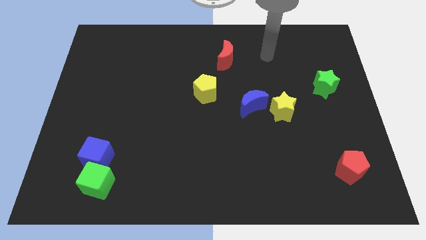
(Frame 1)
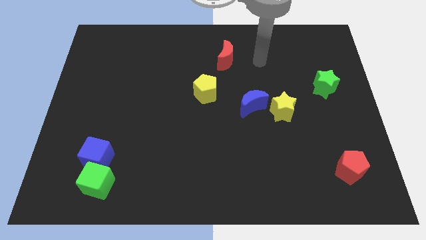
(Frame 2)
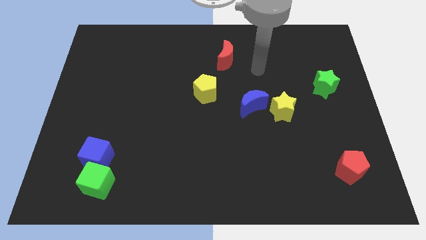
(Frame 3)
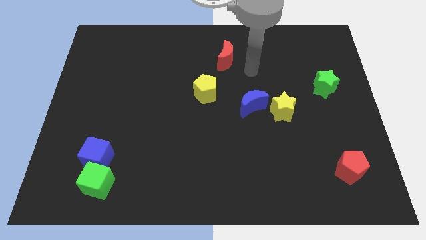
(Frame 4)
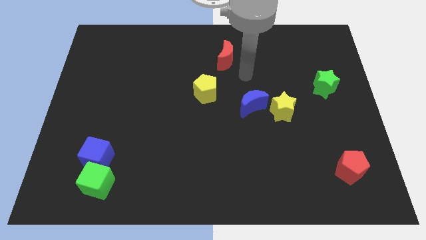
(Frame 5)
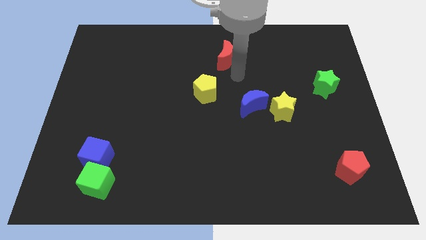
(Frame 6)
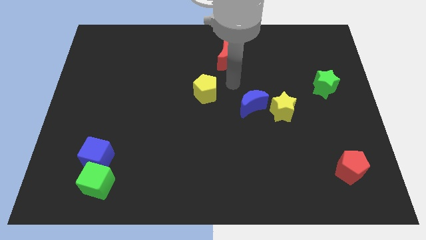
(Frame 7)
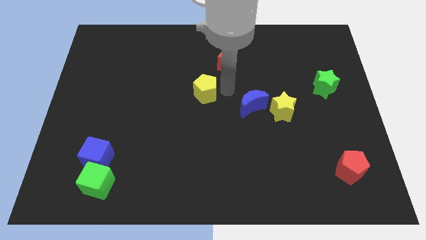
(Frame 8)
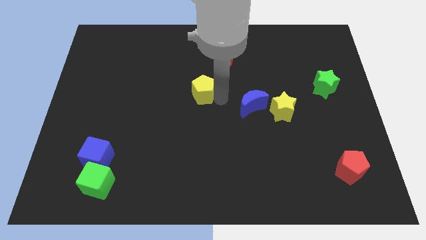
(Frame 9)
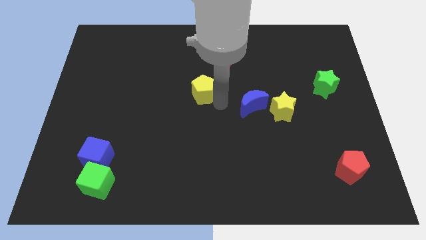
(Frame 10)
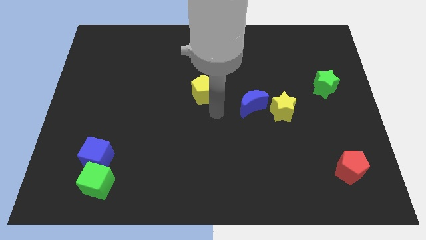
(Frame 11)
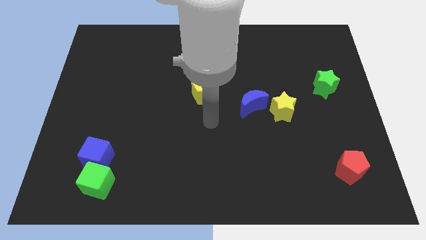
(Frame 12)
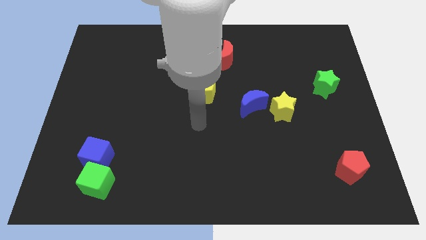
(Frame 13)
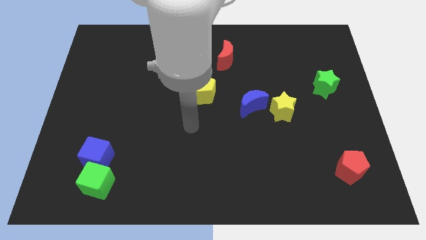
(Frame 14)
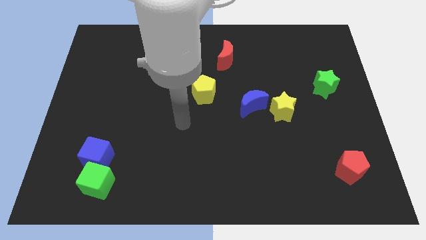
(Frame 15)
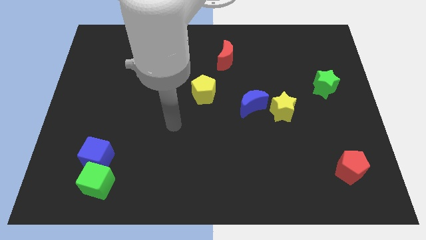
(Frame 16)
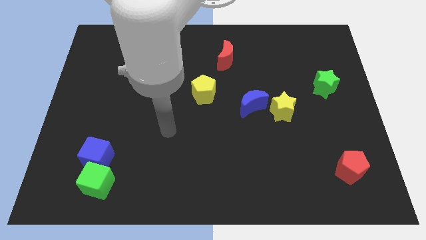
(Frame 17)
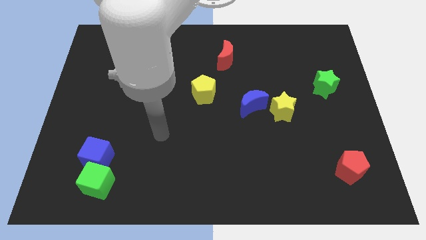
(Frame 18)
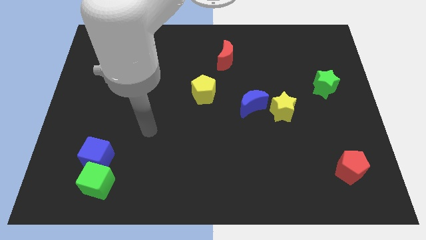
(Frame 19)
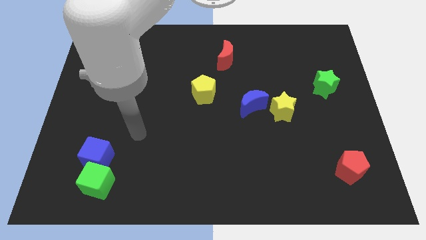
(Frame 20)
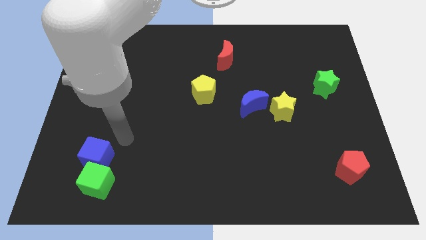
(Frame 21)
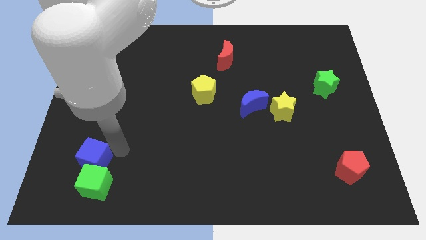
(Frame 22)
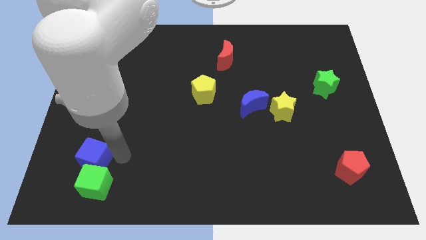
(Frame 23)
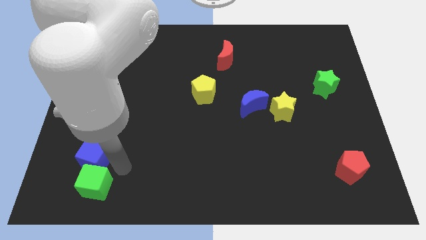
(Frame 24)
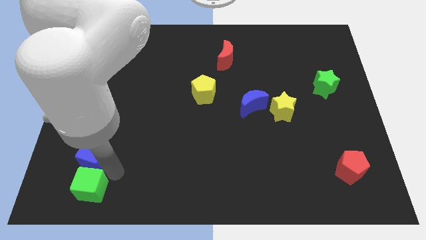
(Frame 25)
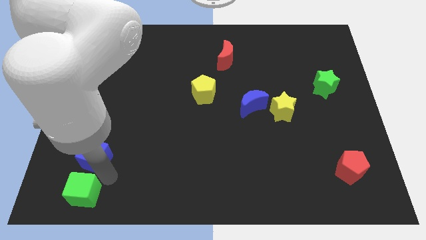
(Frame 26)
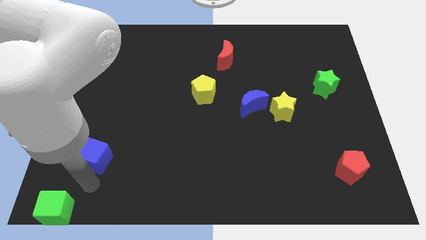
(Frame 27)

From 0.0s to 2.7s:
pull the blue cube apart from the green cube

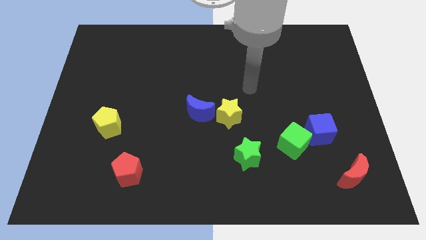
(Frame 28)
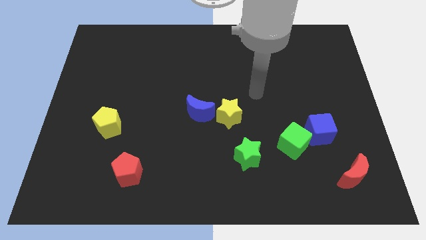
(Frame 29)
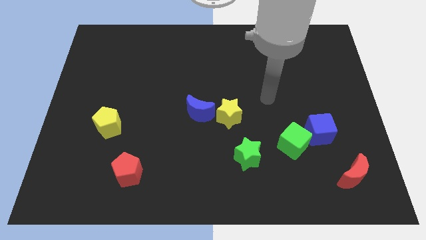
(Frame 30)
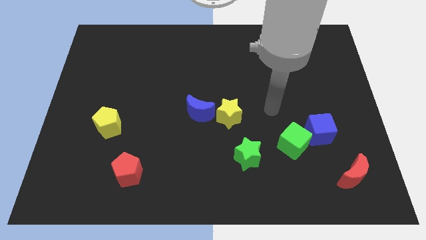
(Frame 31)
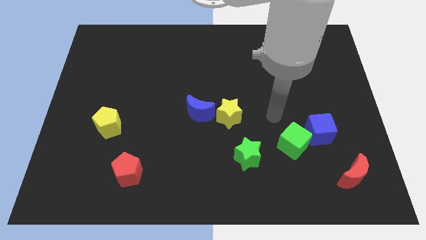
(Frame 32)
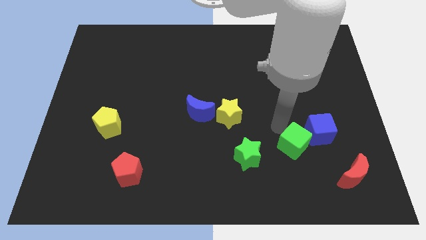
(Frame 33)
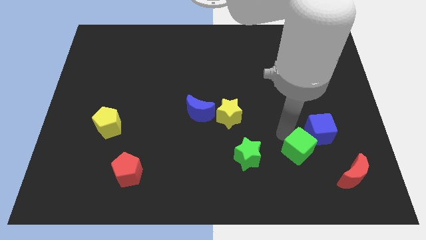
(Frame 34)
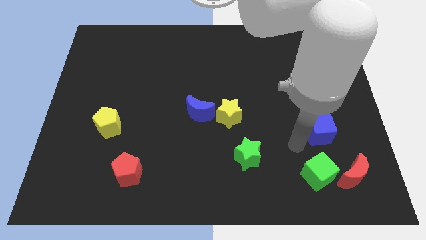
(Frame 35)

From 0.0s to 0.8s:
separate the blue cube from the green cube

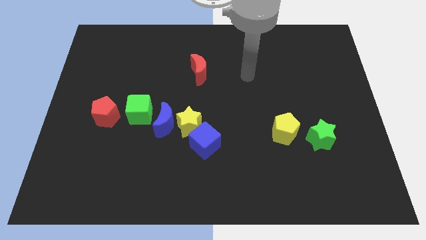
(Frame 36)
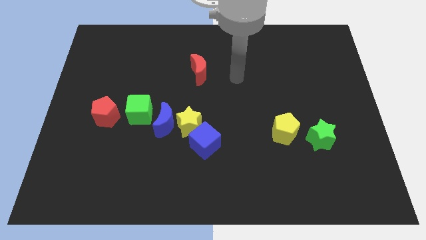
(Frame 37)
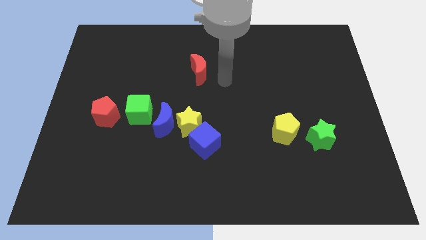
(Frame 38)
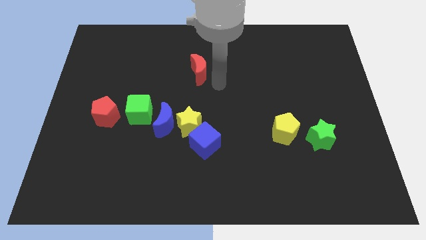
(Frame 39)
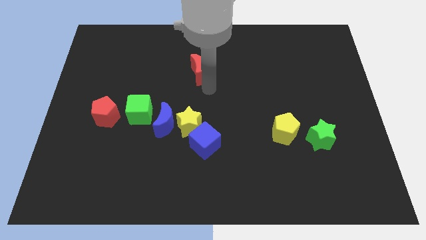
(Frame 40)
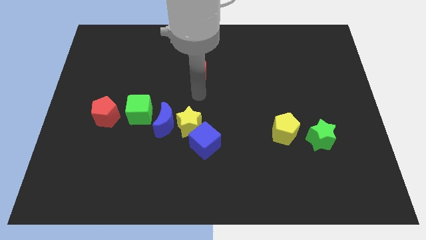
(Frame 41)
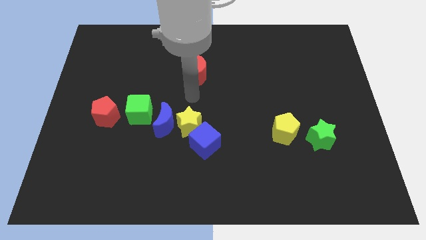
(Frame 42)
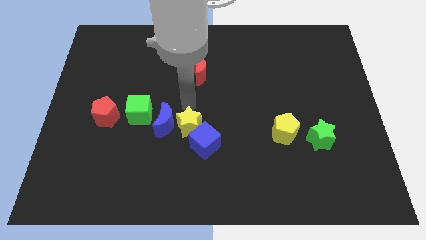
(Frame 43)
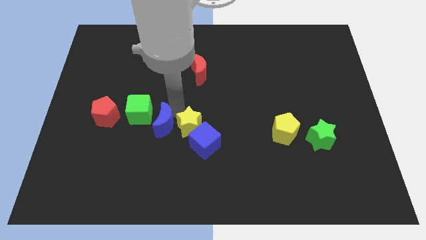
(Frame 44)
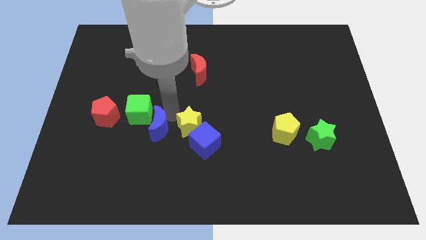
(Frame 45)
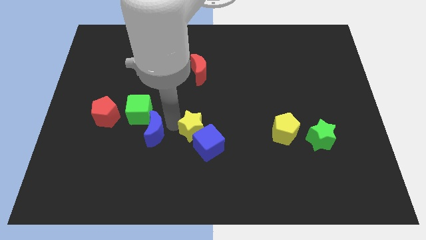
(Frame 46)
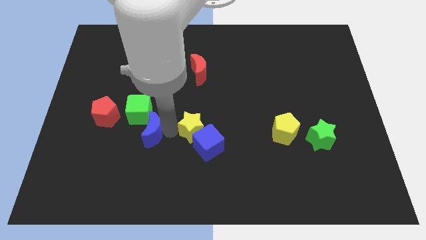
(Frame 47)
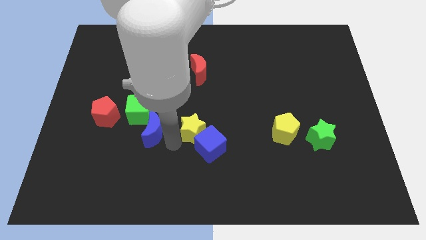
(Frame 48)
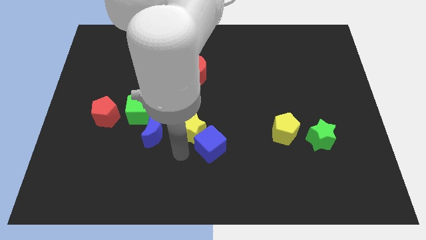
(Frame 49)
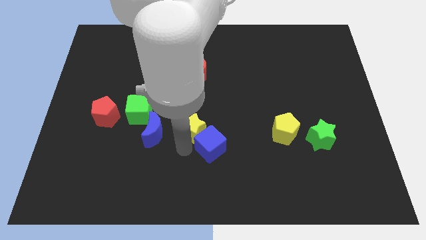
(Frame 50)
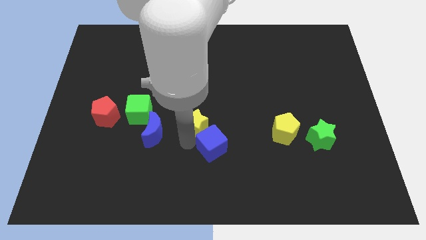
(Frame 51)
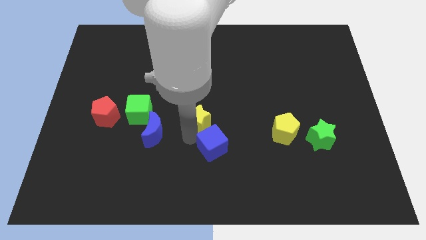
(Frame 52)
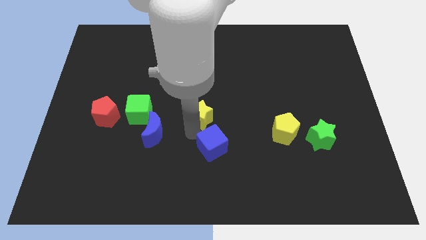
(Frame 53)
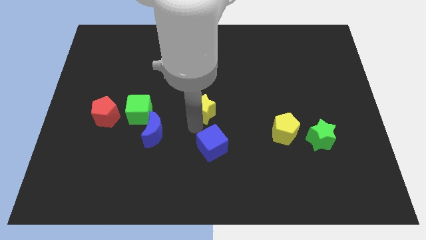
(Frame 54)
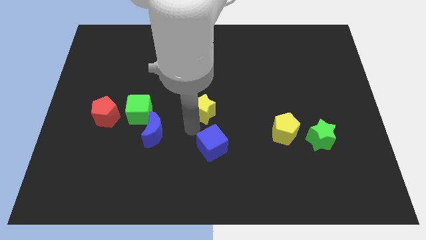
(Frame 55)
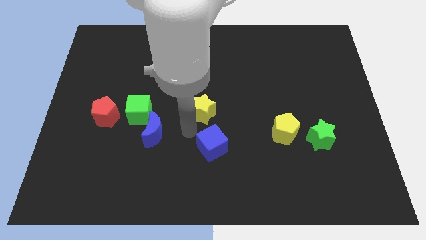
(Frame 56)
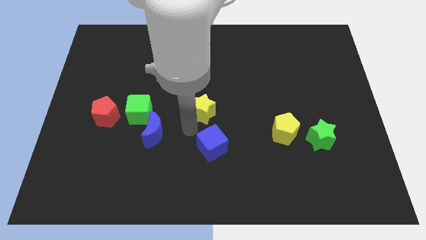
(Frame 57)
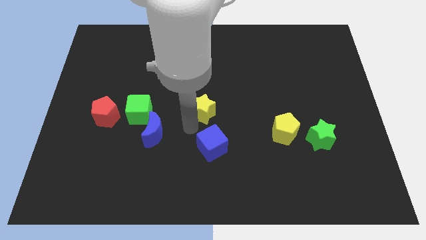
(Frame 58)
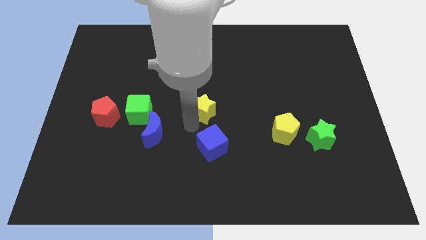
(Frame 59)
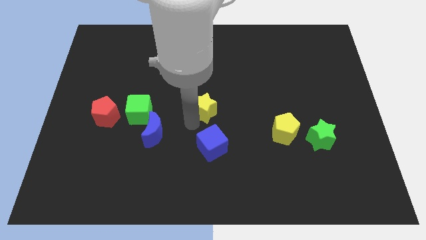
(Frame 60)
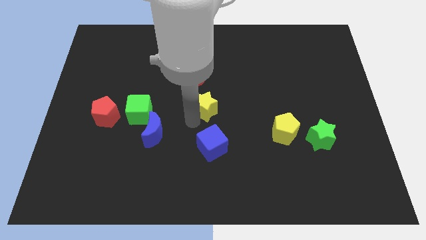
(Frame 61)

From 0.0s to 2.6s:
separate the yellow star from the blue moon and blue cube

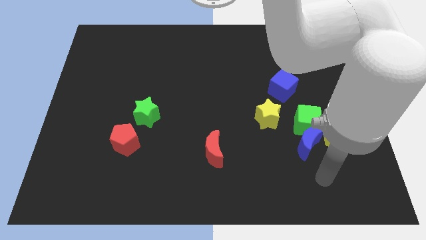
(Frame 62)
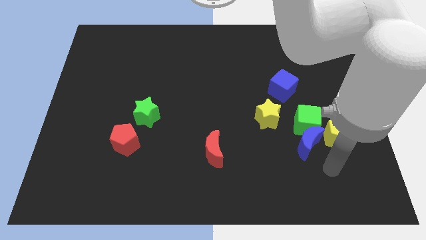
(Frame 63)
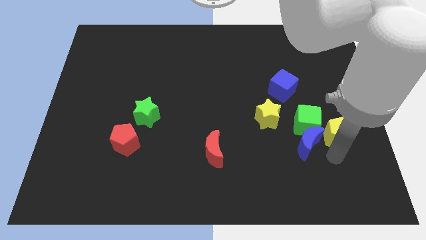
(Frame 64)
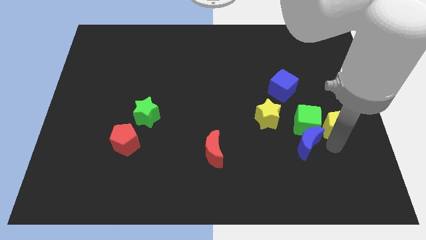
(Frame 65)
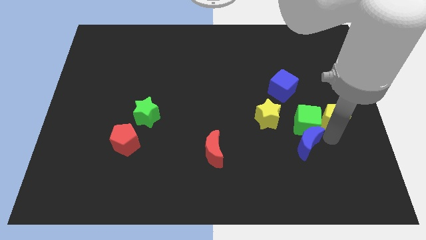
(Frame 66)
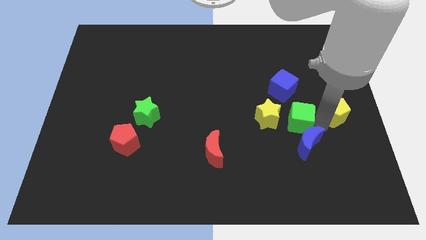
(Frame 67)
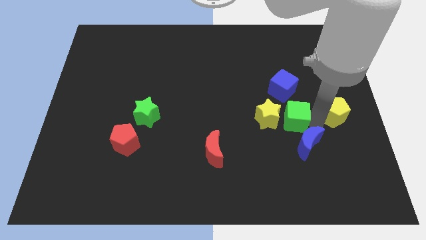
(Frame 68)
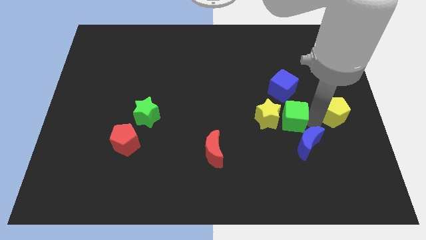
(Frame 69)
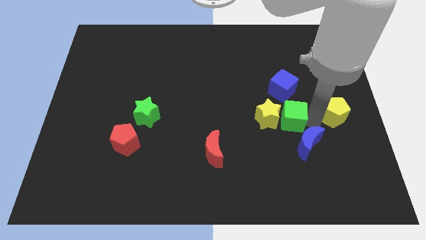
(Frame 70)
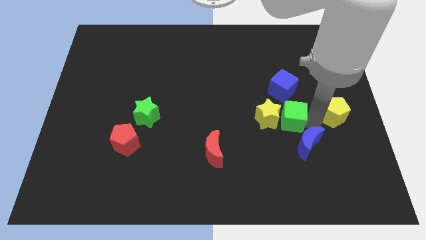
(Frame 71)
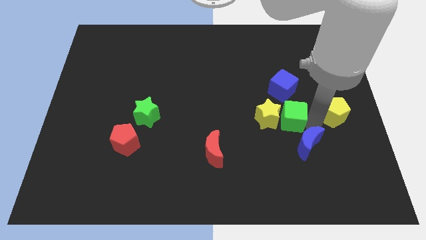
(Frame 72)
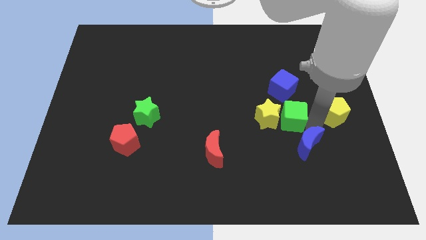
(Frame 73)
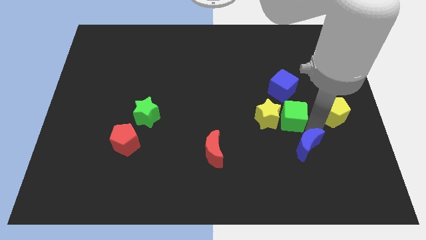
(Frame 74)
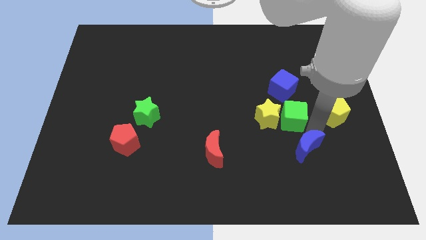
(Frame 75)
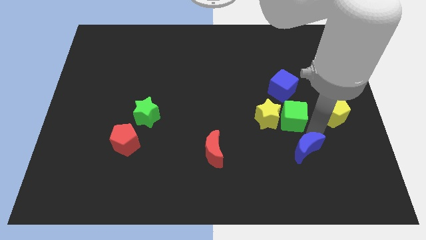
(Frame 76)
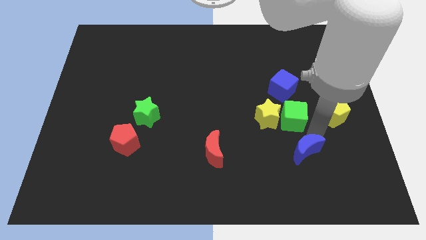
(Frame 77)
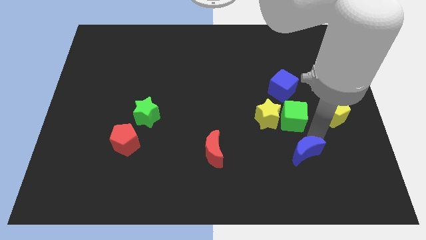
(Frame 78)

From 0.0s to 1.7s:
separate the blue moon from the green cube and yellow pentagon

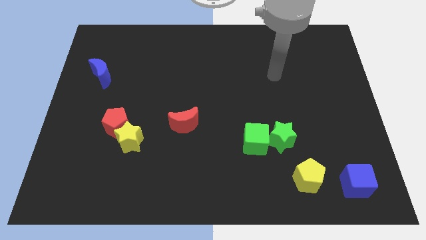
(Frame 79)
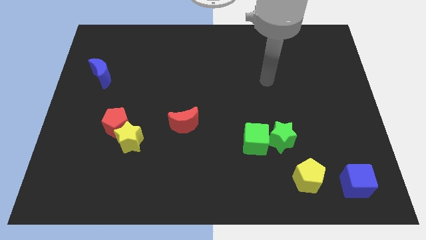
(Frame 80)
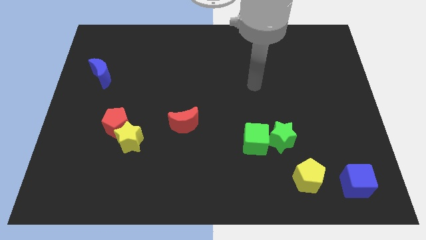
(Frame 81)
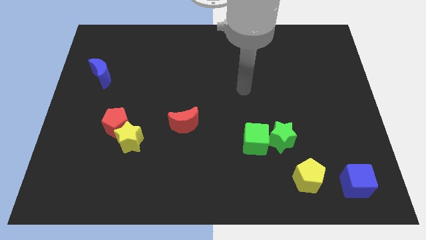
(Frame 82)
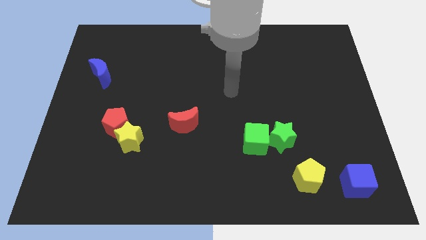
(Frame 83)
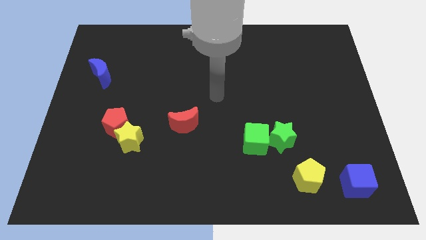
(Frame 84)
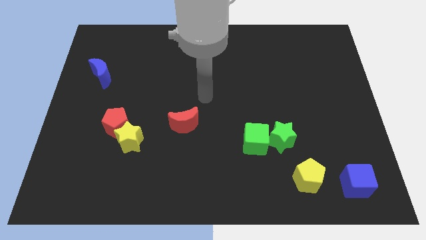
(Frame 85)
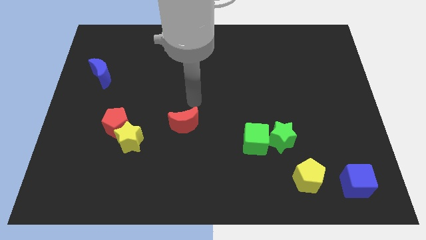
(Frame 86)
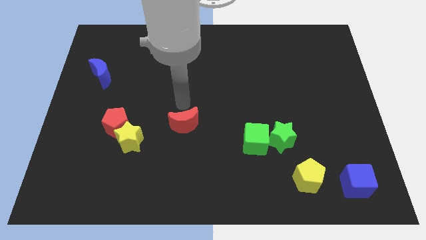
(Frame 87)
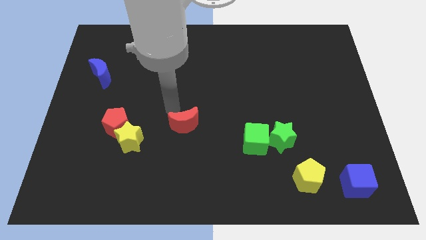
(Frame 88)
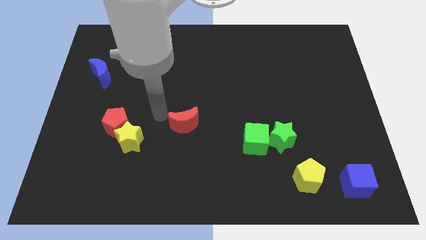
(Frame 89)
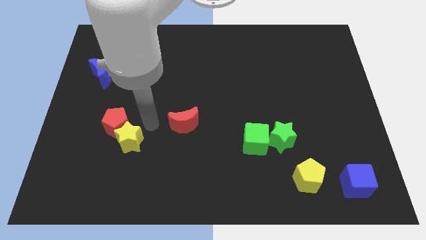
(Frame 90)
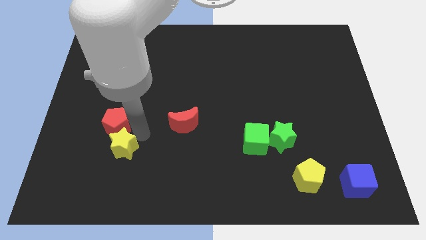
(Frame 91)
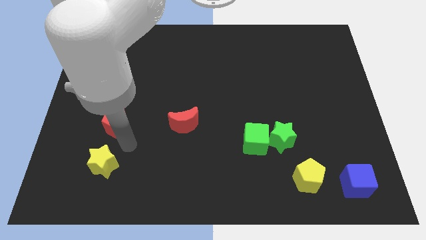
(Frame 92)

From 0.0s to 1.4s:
move the red pentagon away from the yellow star
